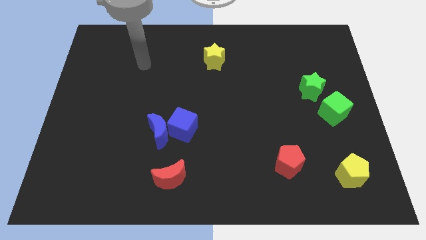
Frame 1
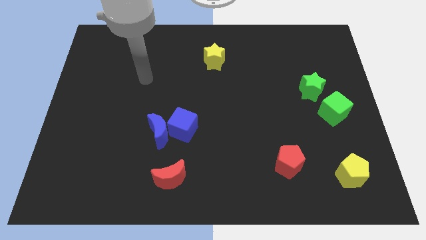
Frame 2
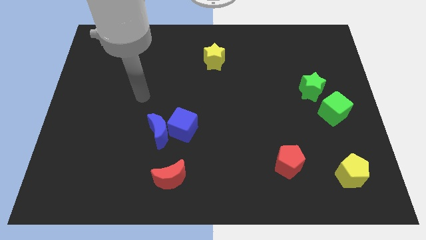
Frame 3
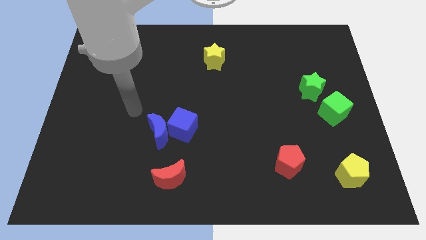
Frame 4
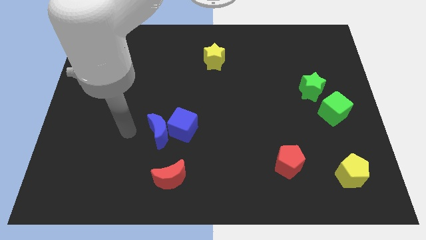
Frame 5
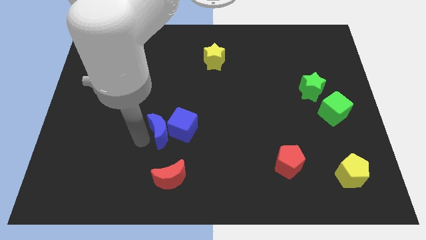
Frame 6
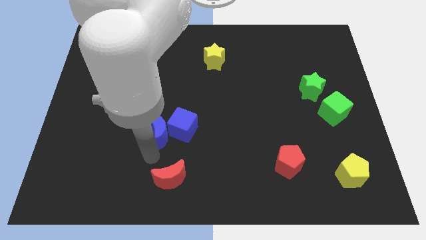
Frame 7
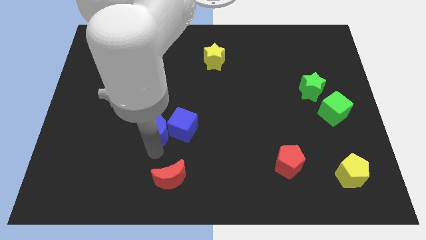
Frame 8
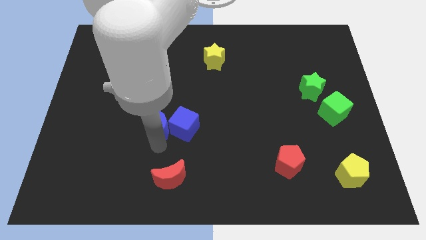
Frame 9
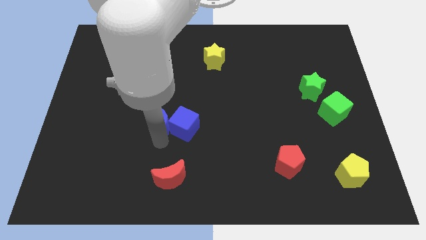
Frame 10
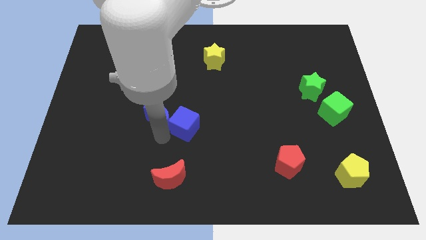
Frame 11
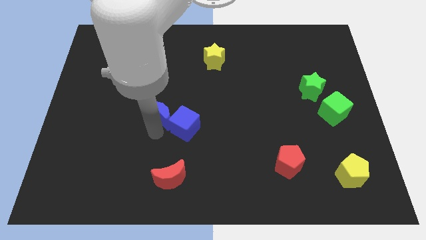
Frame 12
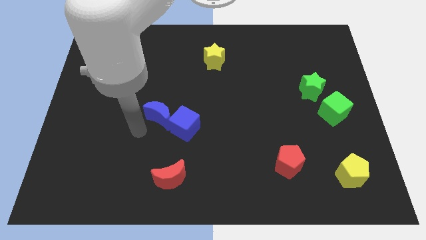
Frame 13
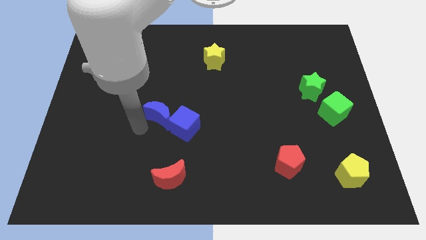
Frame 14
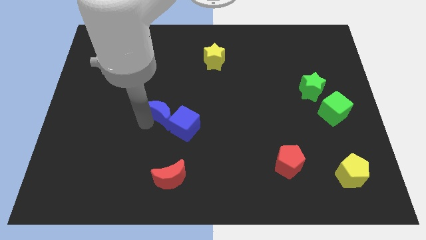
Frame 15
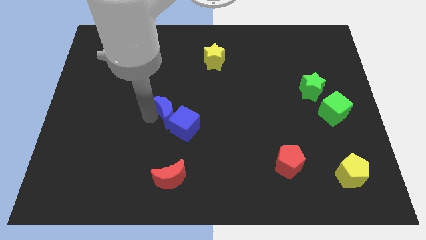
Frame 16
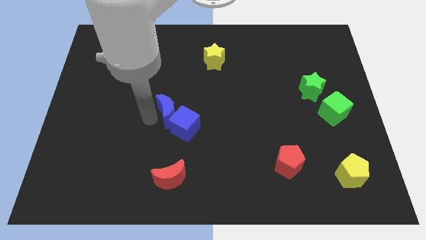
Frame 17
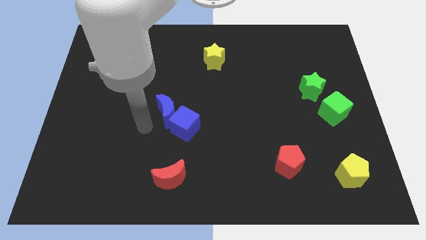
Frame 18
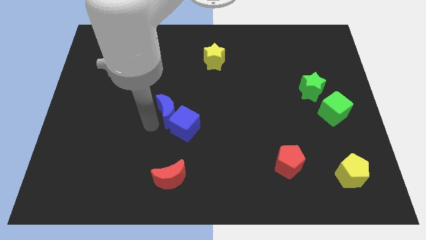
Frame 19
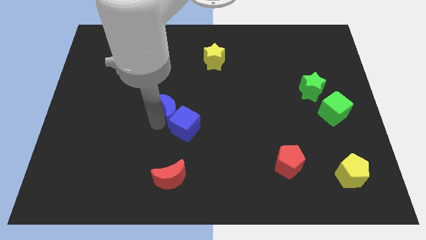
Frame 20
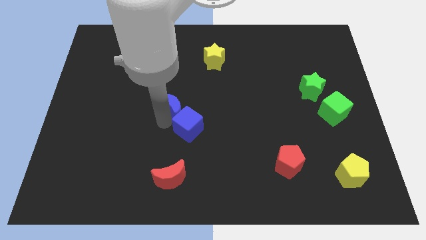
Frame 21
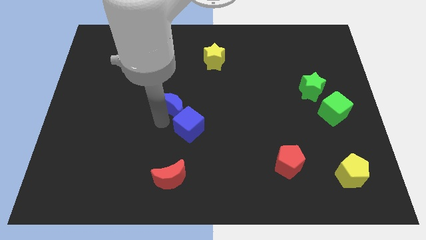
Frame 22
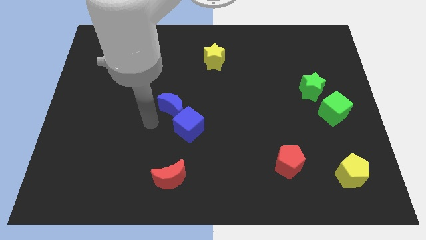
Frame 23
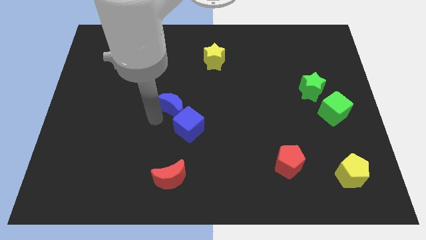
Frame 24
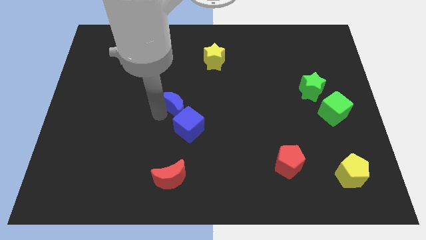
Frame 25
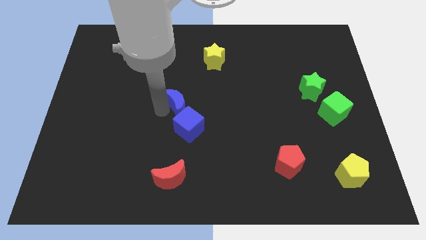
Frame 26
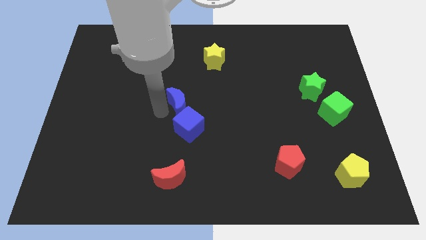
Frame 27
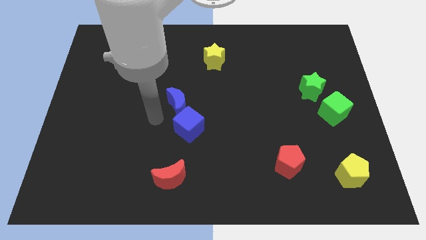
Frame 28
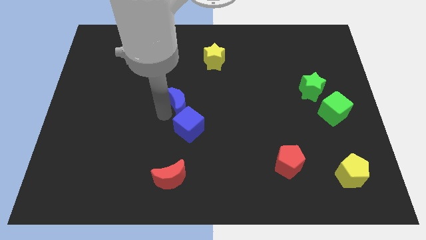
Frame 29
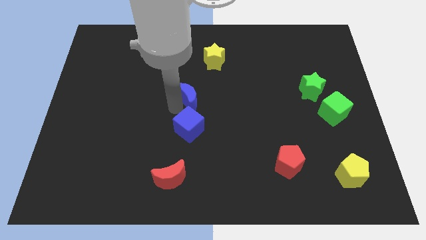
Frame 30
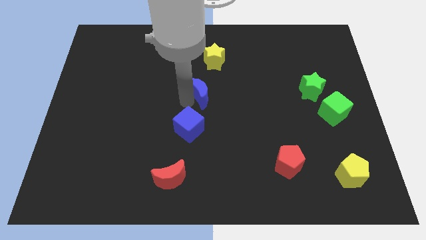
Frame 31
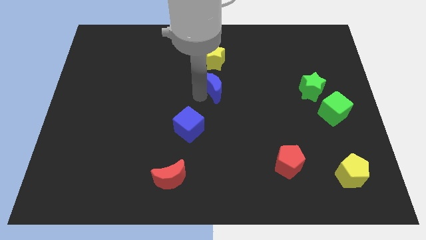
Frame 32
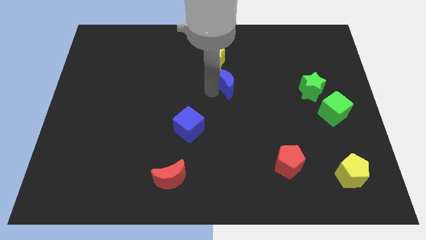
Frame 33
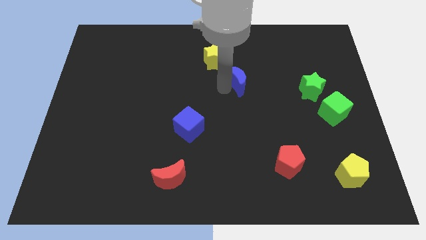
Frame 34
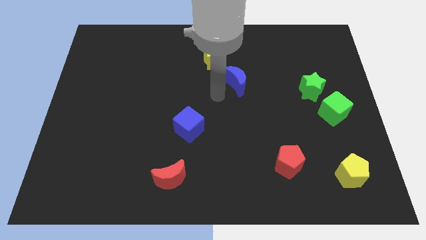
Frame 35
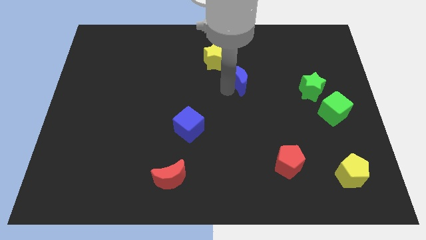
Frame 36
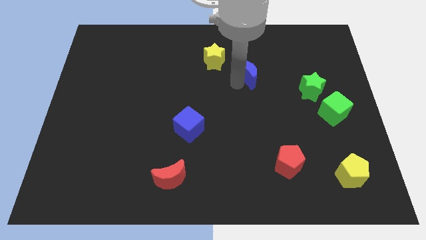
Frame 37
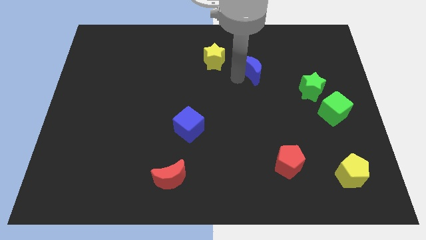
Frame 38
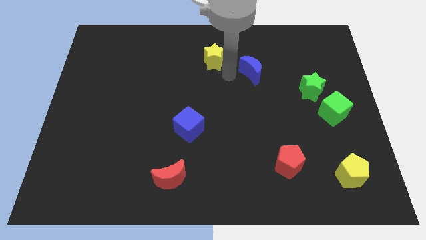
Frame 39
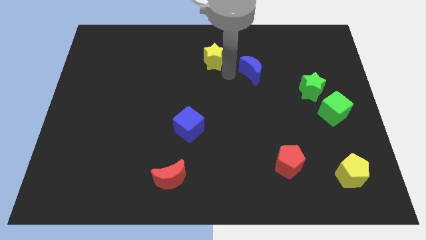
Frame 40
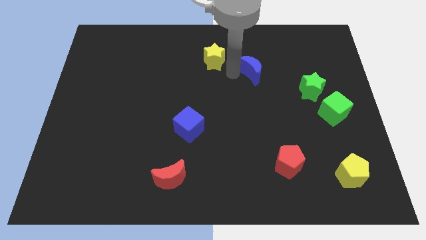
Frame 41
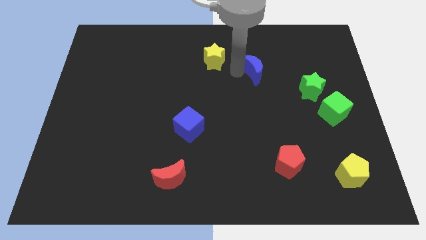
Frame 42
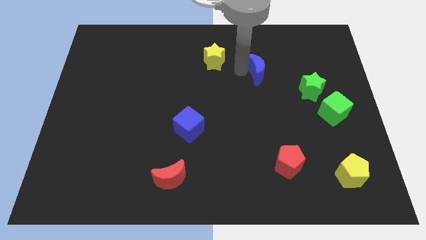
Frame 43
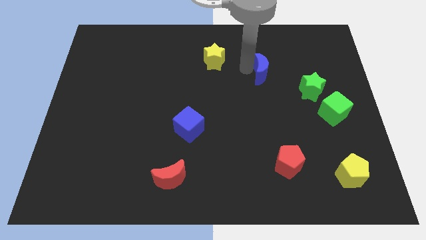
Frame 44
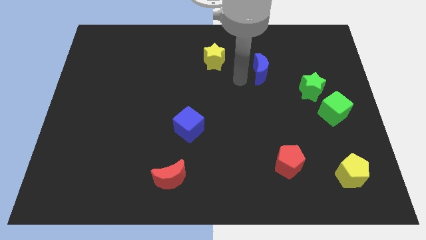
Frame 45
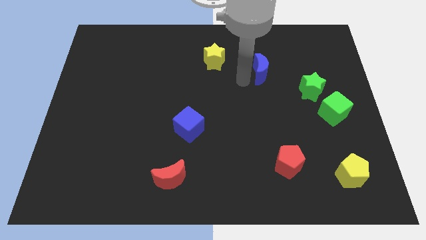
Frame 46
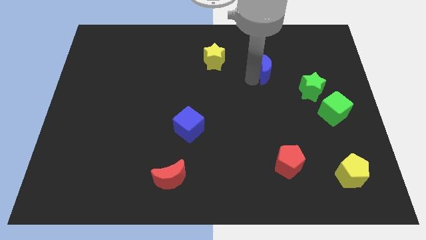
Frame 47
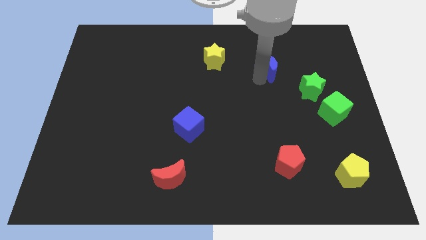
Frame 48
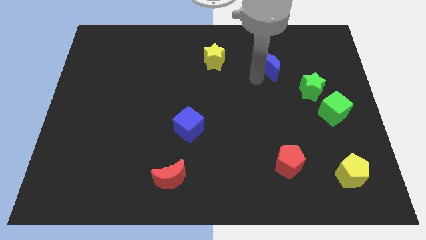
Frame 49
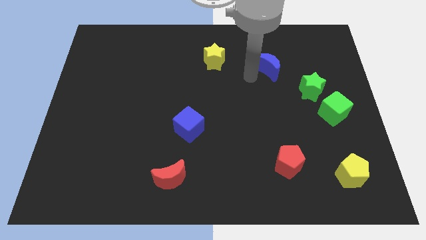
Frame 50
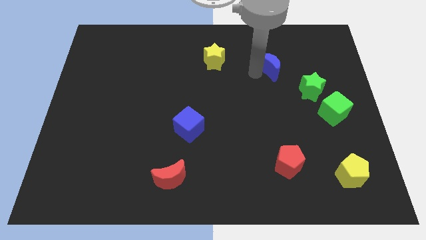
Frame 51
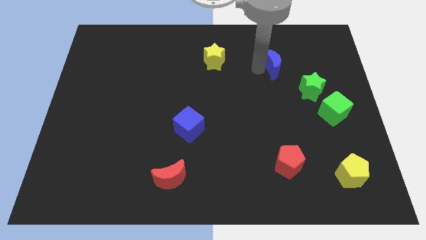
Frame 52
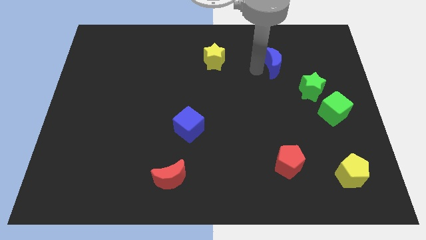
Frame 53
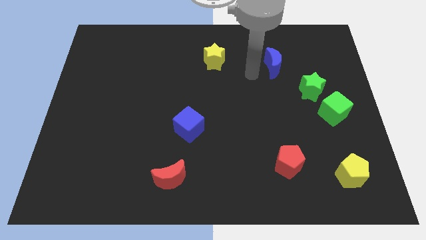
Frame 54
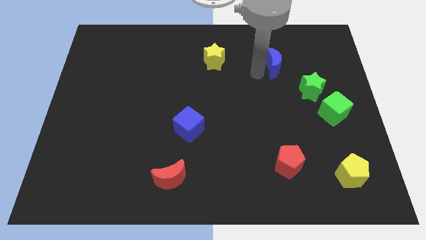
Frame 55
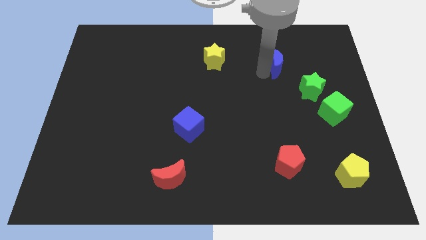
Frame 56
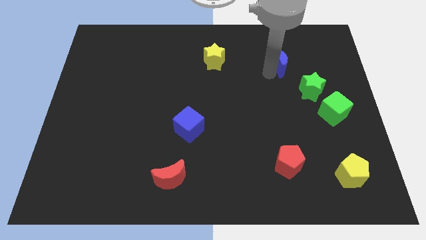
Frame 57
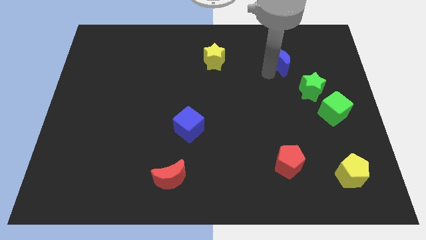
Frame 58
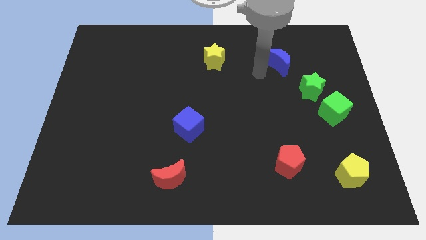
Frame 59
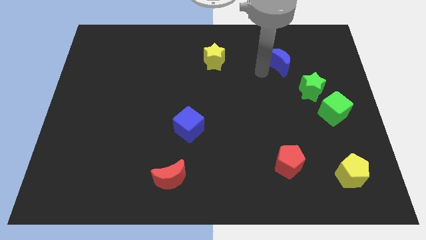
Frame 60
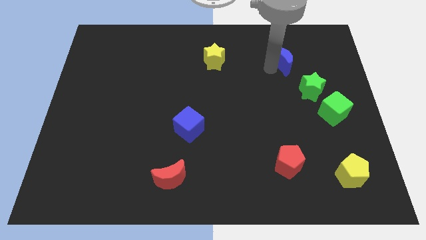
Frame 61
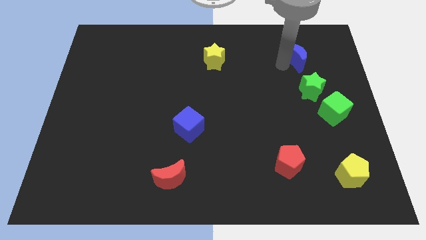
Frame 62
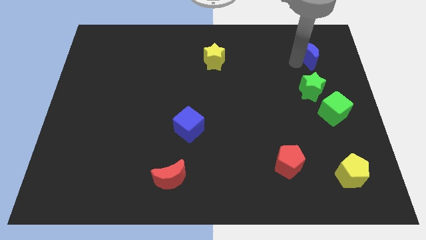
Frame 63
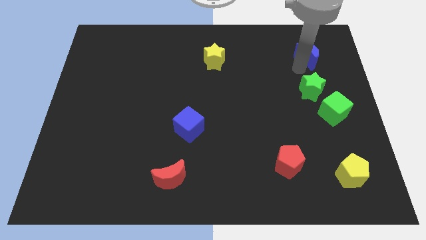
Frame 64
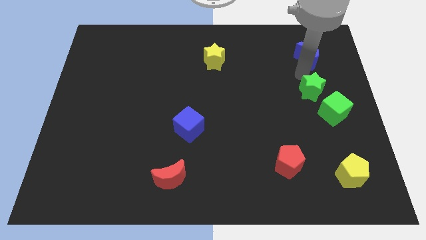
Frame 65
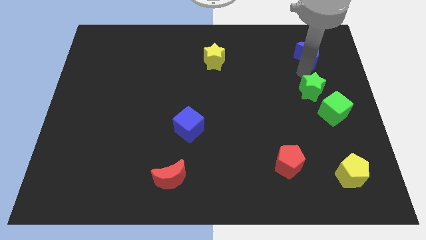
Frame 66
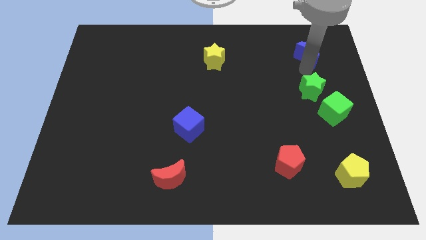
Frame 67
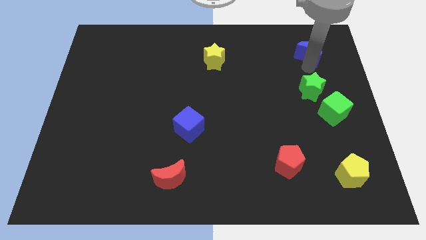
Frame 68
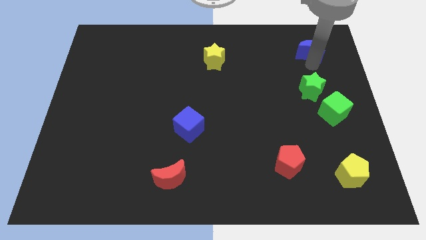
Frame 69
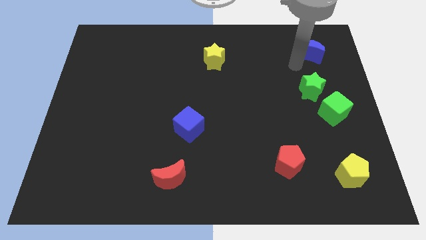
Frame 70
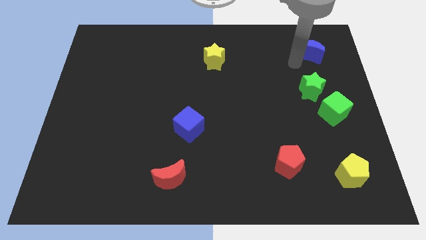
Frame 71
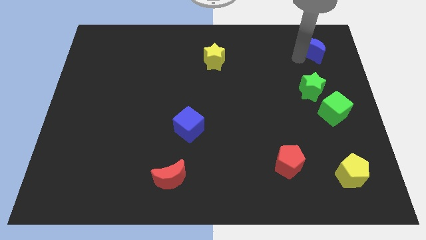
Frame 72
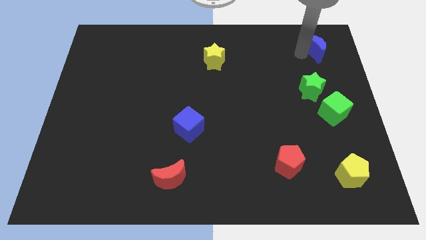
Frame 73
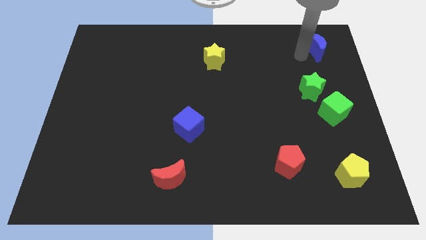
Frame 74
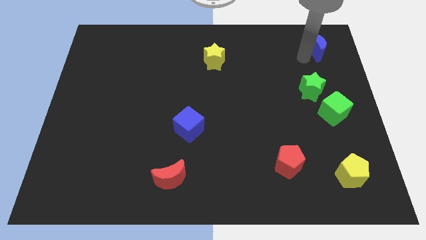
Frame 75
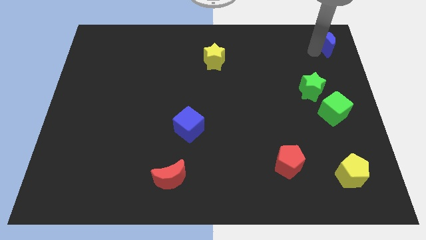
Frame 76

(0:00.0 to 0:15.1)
push the blue moon to the top right
